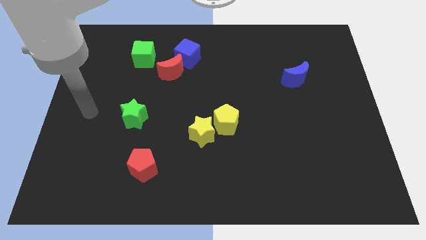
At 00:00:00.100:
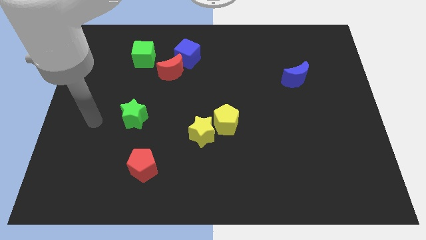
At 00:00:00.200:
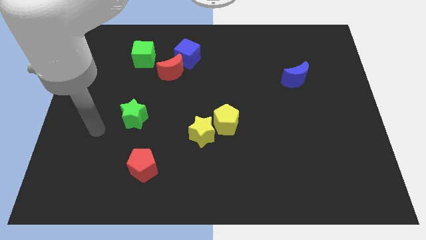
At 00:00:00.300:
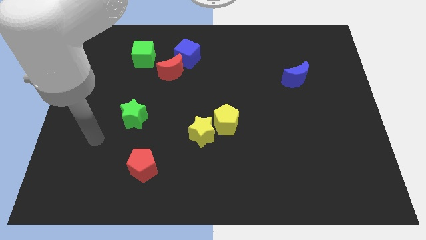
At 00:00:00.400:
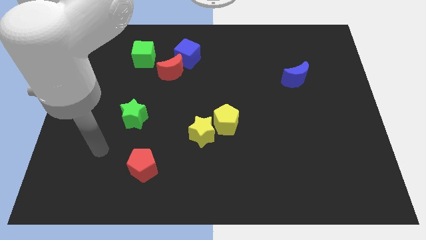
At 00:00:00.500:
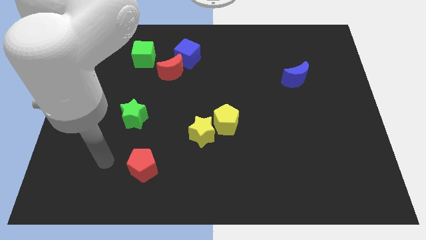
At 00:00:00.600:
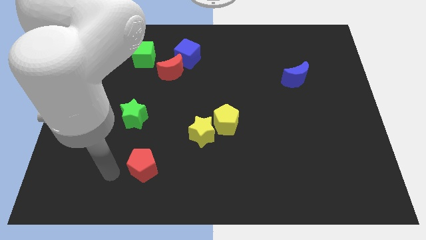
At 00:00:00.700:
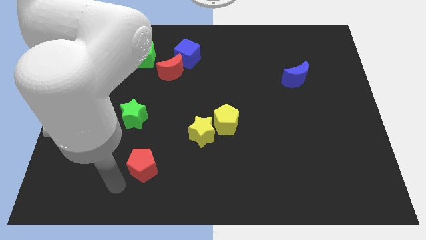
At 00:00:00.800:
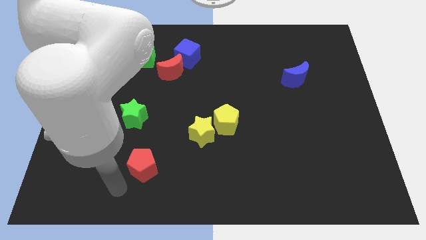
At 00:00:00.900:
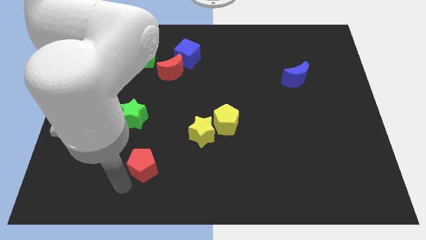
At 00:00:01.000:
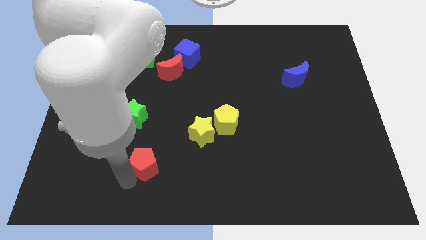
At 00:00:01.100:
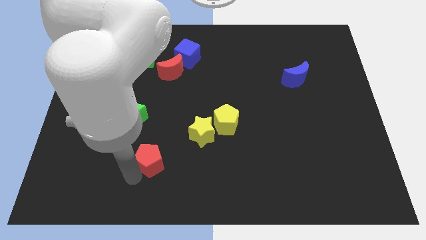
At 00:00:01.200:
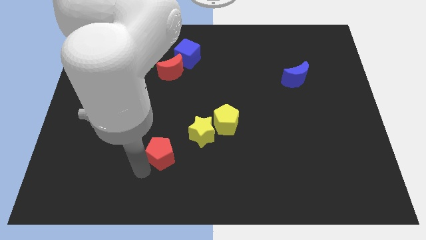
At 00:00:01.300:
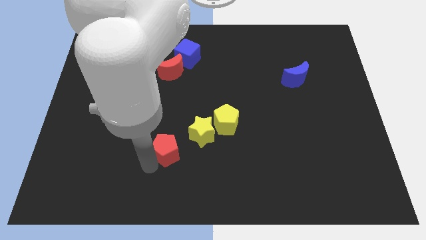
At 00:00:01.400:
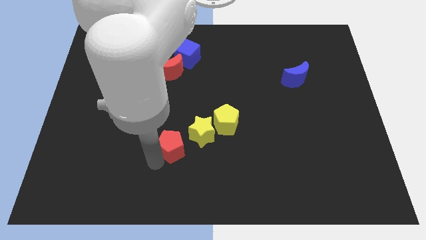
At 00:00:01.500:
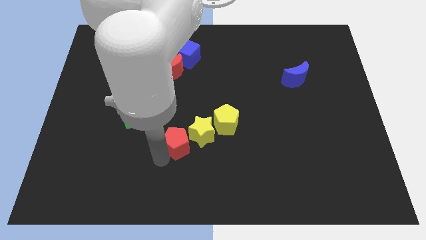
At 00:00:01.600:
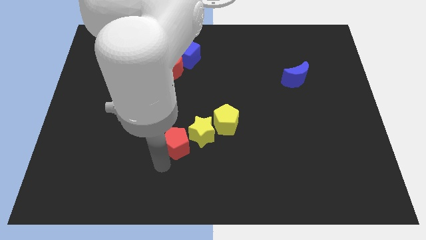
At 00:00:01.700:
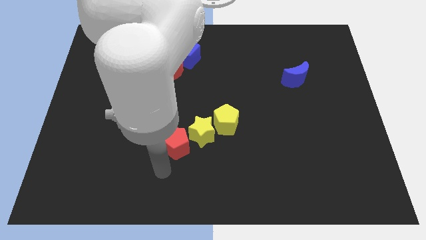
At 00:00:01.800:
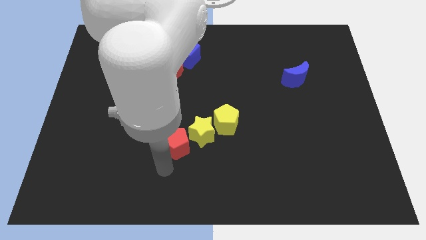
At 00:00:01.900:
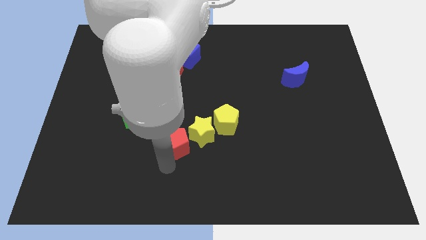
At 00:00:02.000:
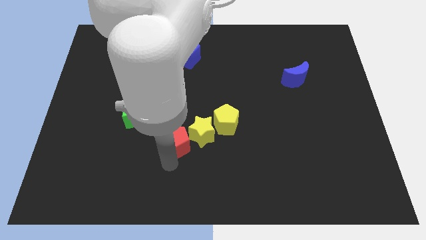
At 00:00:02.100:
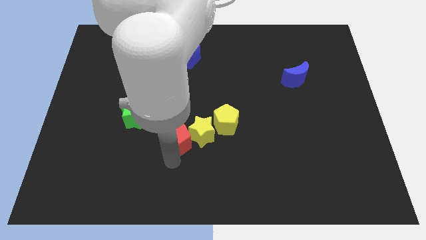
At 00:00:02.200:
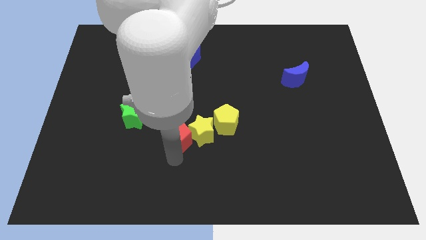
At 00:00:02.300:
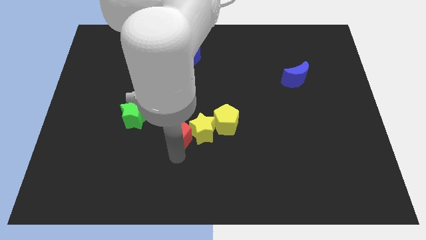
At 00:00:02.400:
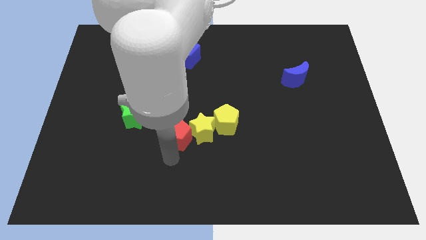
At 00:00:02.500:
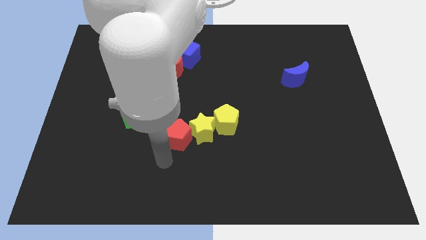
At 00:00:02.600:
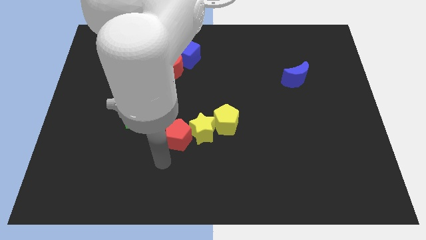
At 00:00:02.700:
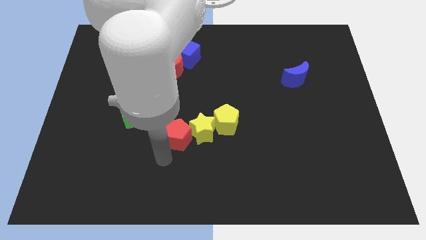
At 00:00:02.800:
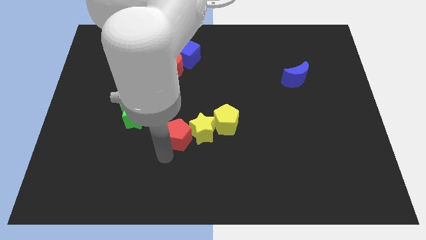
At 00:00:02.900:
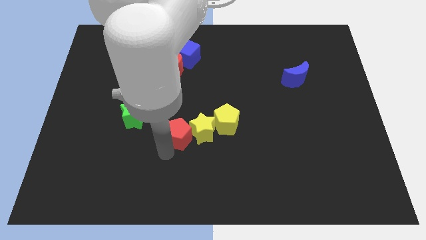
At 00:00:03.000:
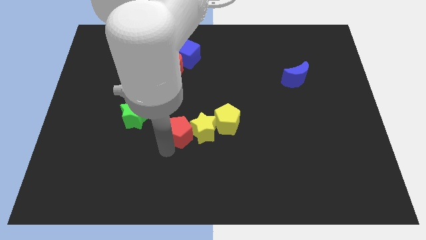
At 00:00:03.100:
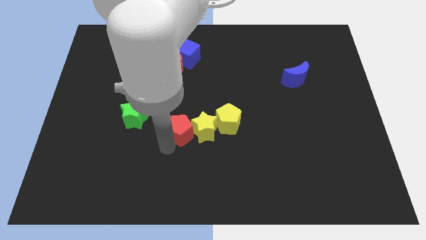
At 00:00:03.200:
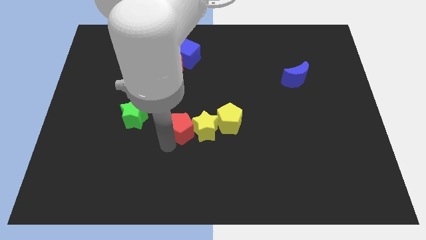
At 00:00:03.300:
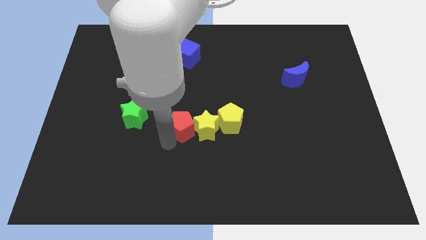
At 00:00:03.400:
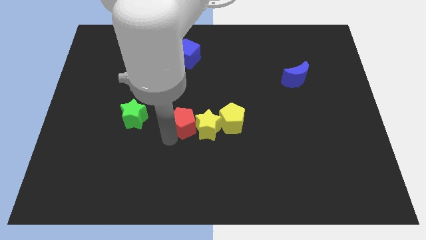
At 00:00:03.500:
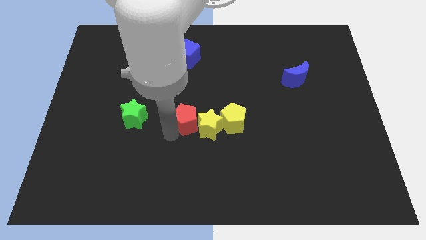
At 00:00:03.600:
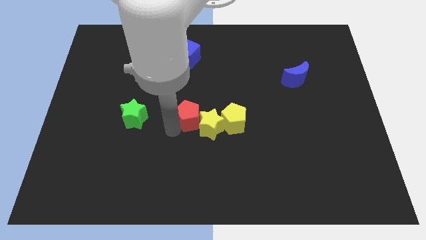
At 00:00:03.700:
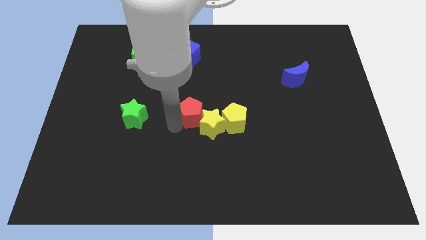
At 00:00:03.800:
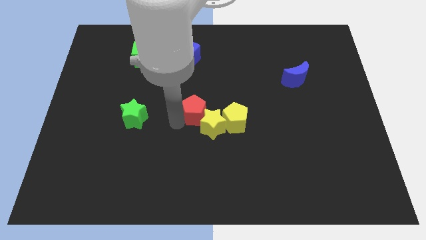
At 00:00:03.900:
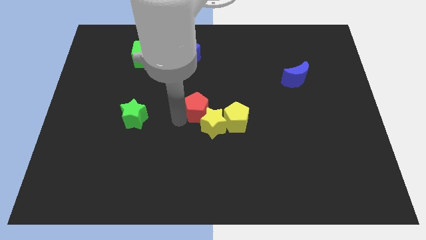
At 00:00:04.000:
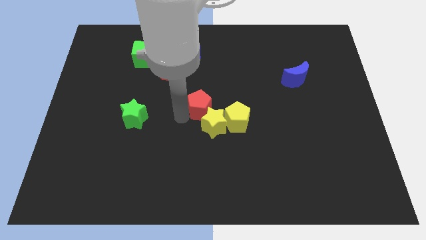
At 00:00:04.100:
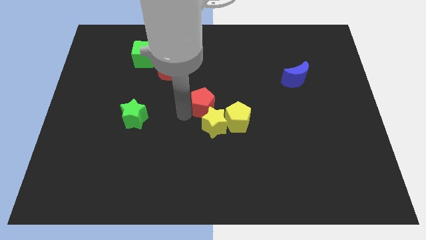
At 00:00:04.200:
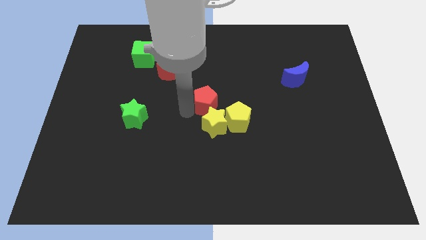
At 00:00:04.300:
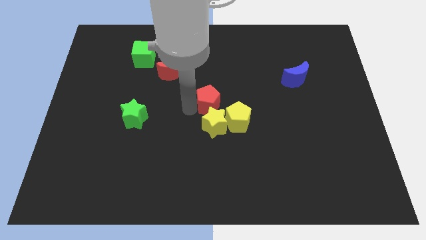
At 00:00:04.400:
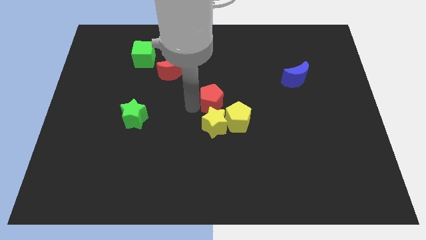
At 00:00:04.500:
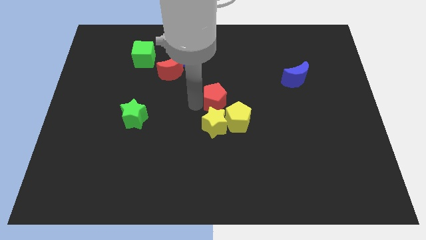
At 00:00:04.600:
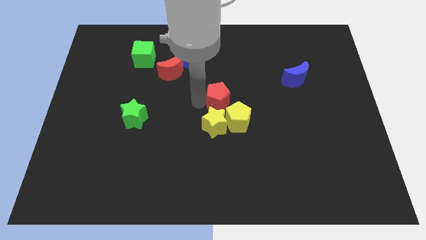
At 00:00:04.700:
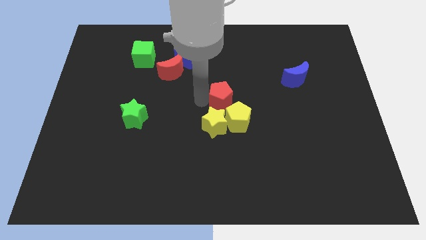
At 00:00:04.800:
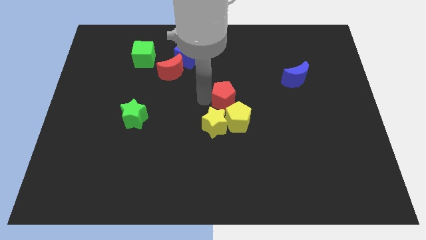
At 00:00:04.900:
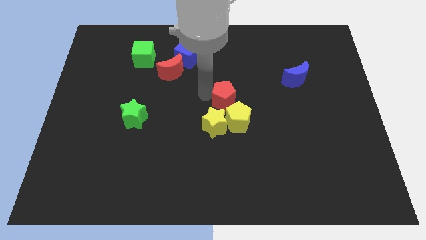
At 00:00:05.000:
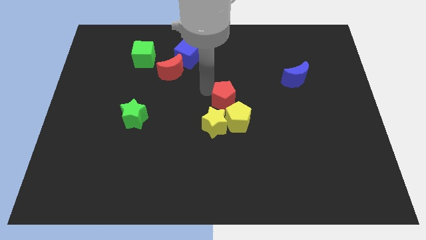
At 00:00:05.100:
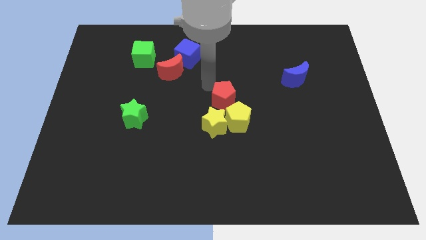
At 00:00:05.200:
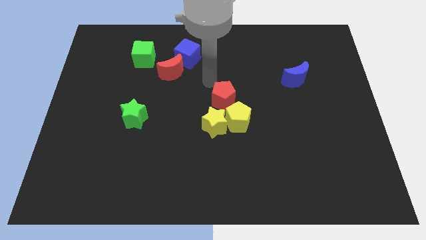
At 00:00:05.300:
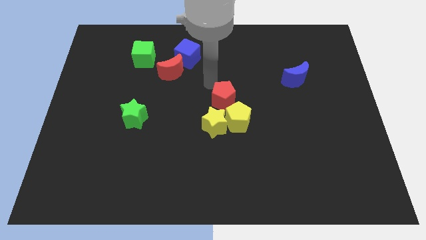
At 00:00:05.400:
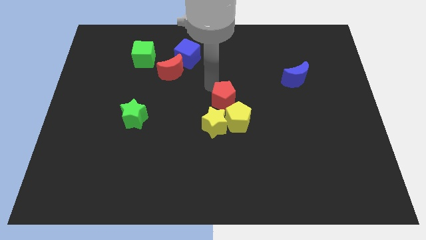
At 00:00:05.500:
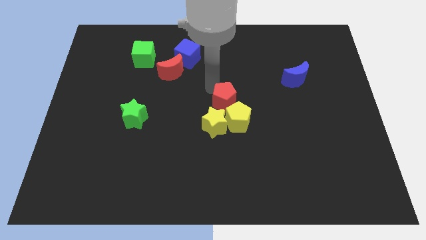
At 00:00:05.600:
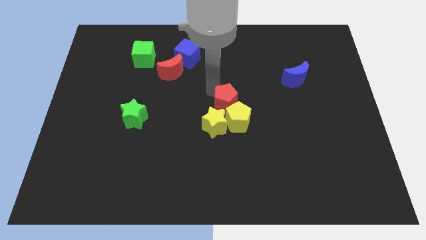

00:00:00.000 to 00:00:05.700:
slide the red pentagon next to the yellow pentagon

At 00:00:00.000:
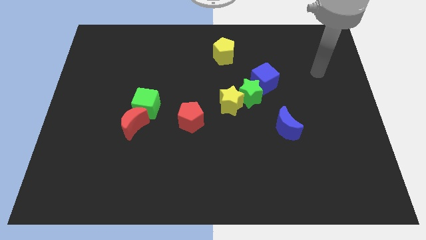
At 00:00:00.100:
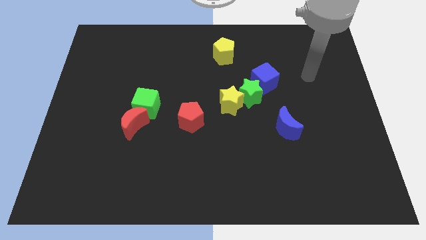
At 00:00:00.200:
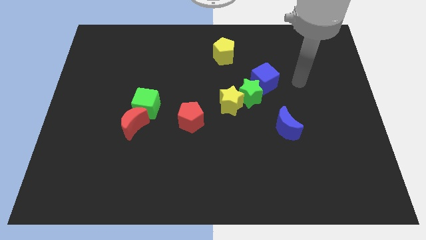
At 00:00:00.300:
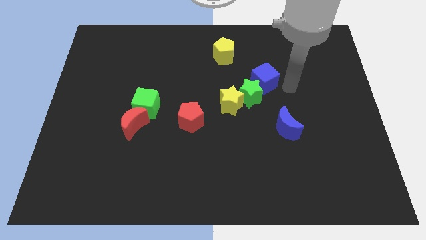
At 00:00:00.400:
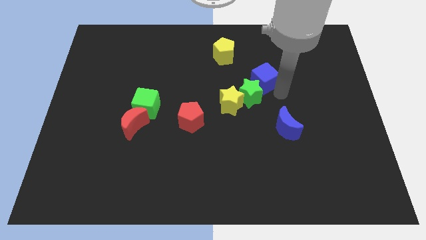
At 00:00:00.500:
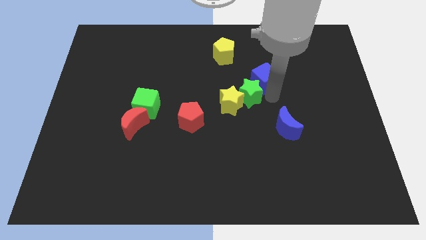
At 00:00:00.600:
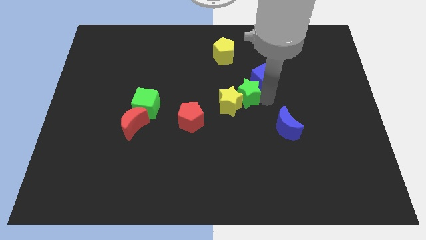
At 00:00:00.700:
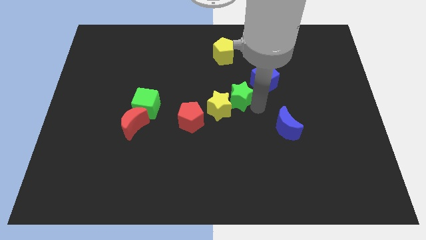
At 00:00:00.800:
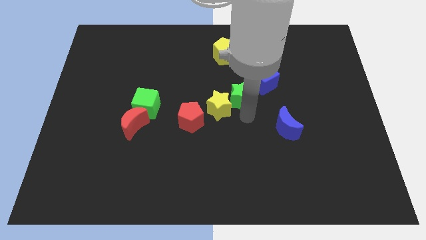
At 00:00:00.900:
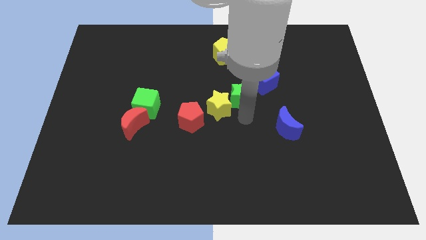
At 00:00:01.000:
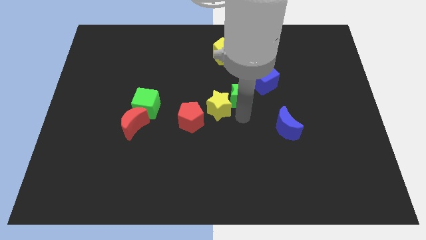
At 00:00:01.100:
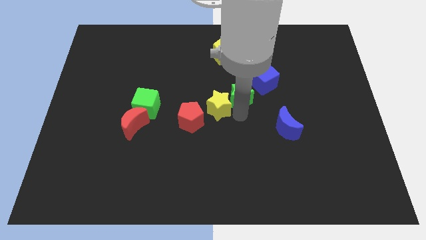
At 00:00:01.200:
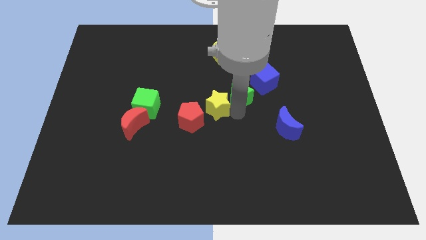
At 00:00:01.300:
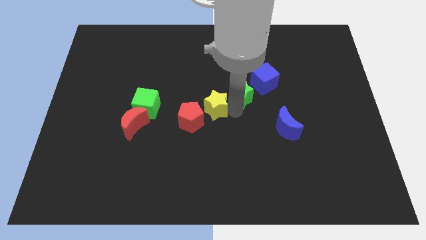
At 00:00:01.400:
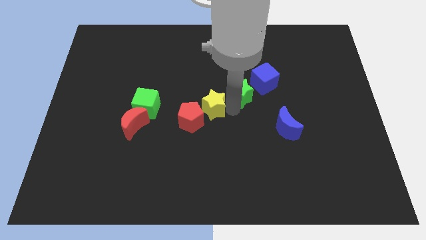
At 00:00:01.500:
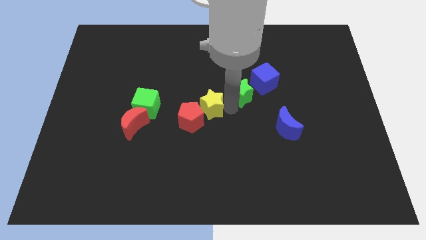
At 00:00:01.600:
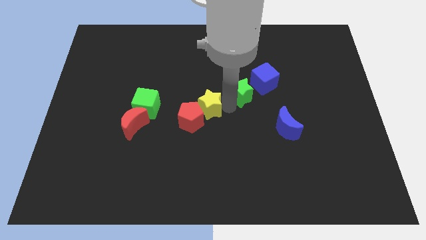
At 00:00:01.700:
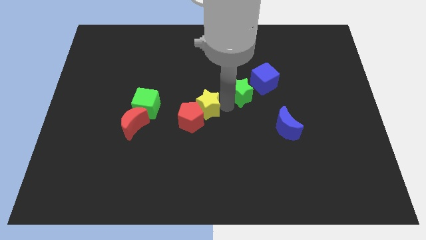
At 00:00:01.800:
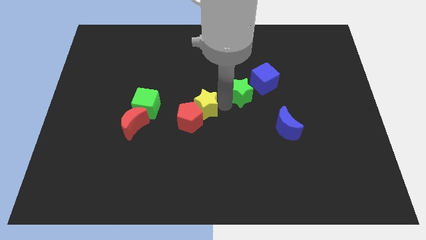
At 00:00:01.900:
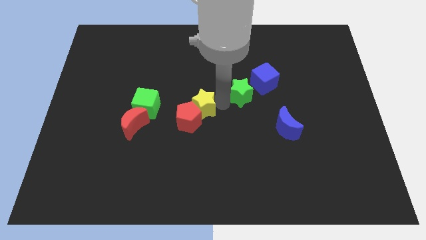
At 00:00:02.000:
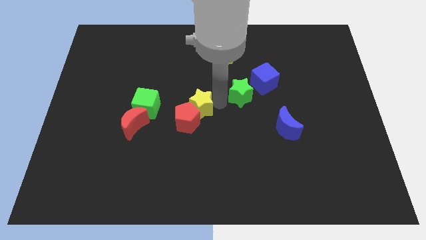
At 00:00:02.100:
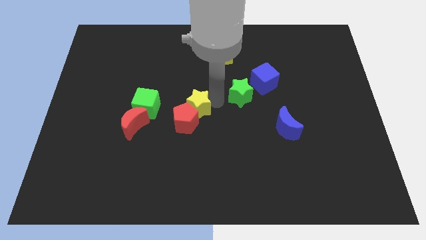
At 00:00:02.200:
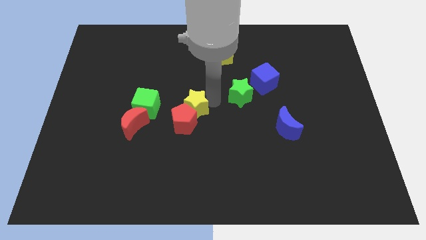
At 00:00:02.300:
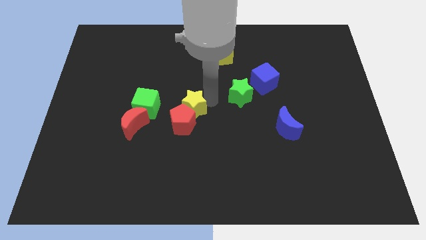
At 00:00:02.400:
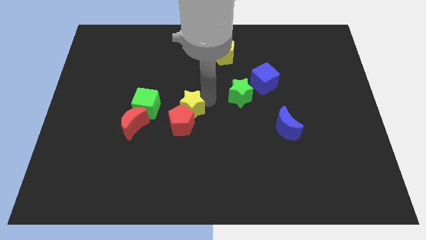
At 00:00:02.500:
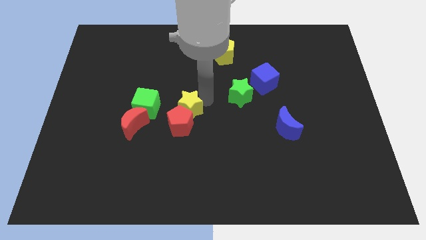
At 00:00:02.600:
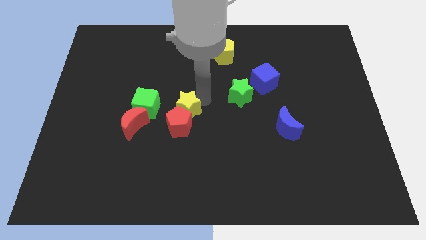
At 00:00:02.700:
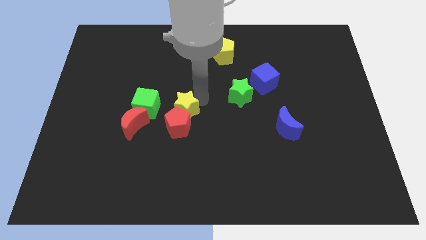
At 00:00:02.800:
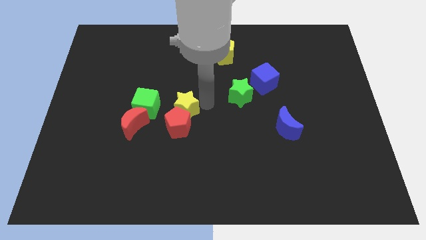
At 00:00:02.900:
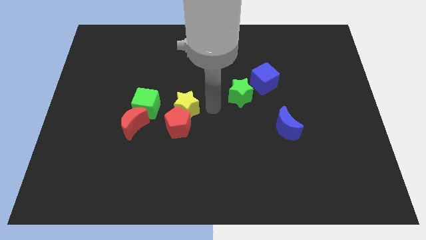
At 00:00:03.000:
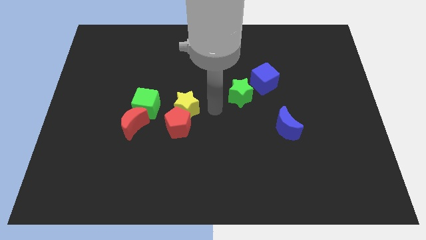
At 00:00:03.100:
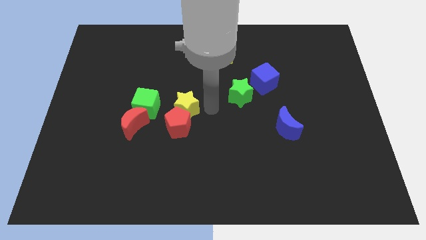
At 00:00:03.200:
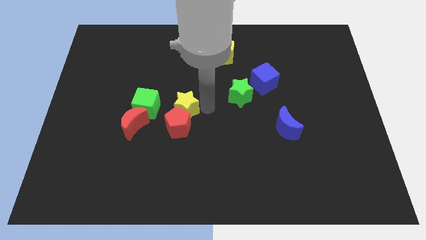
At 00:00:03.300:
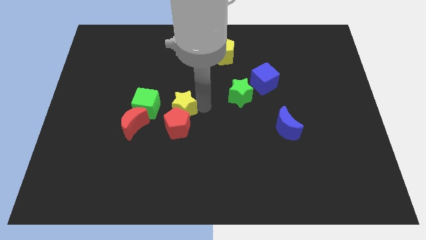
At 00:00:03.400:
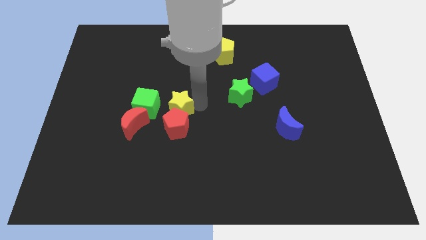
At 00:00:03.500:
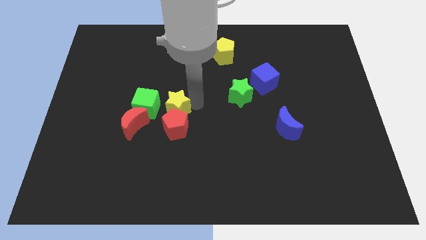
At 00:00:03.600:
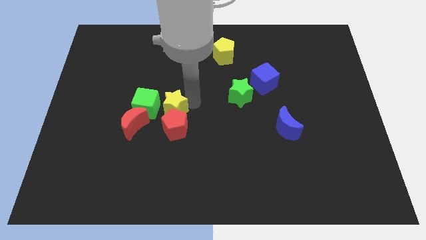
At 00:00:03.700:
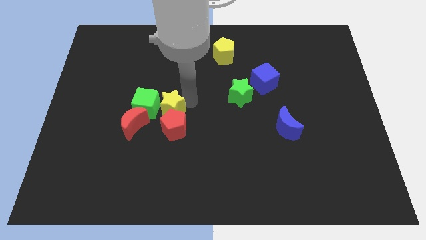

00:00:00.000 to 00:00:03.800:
push the yellow star next to the green cube
